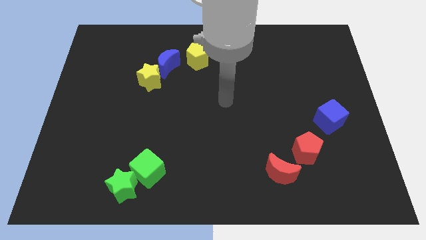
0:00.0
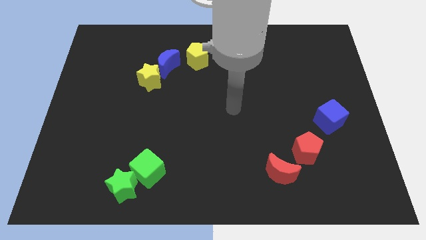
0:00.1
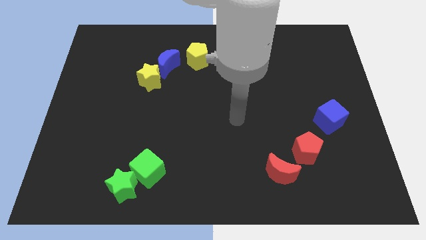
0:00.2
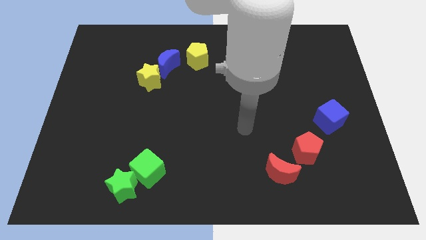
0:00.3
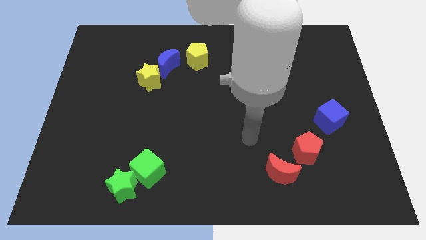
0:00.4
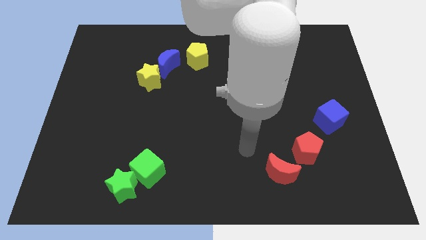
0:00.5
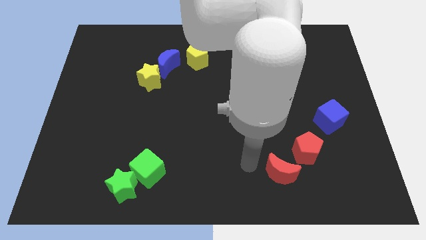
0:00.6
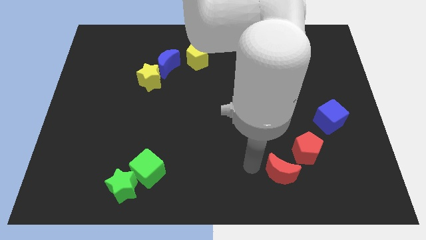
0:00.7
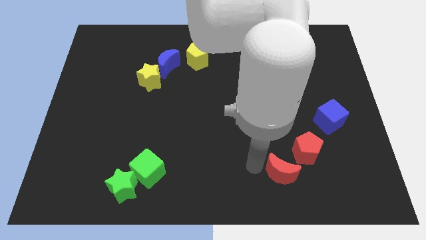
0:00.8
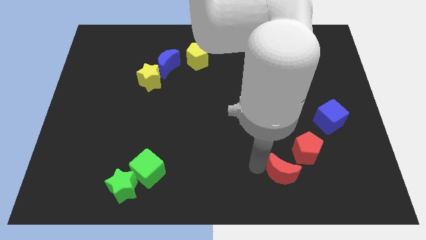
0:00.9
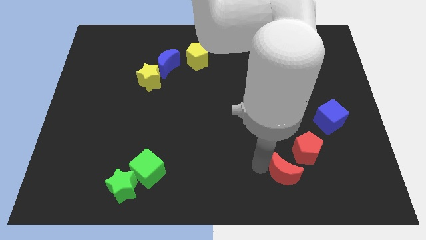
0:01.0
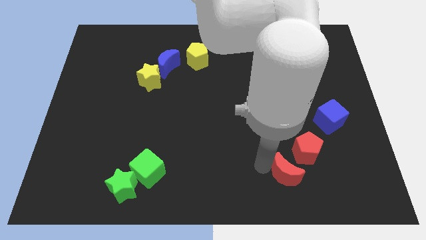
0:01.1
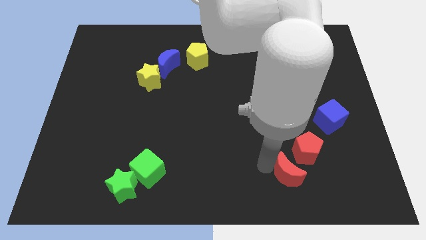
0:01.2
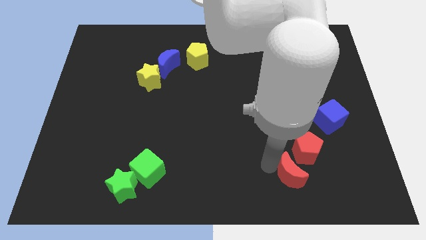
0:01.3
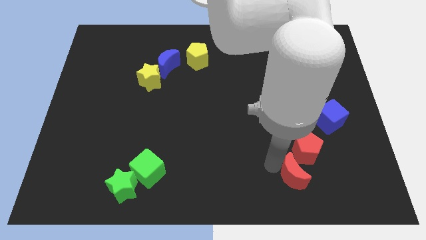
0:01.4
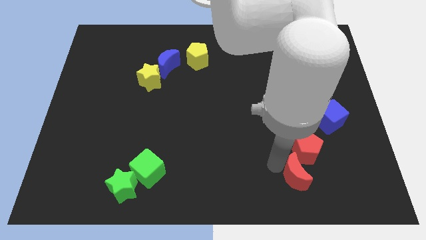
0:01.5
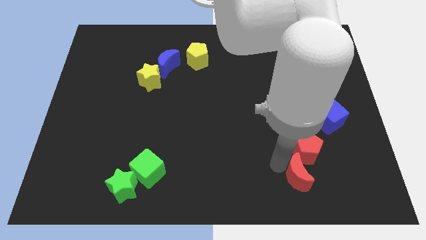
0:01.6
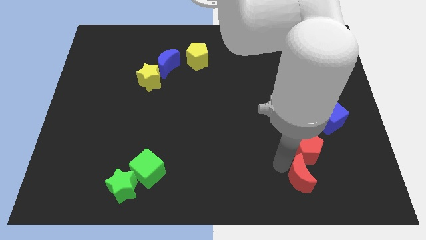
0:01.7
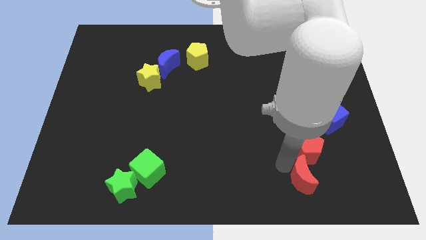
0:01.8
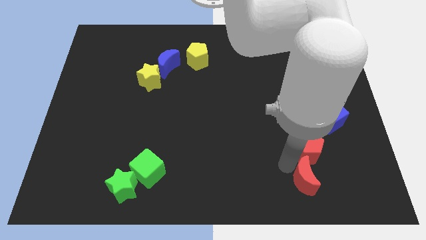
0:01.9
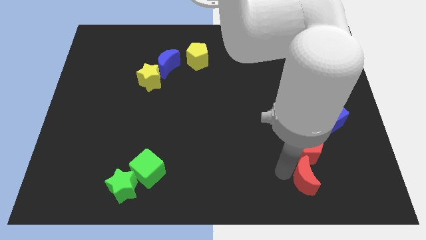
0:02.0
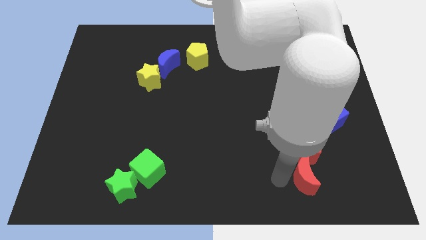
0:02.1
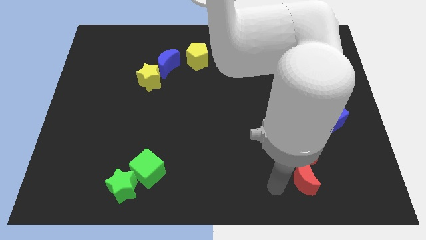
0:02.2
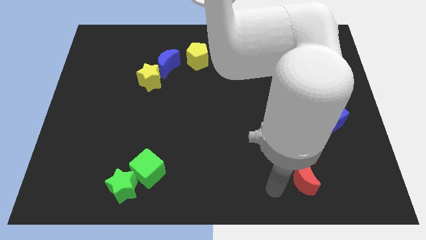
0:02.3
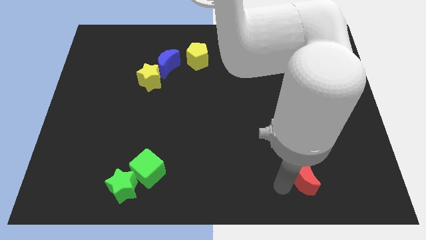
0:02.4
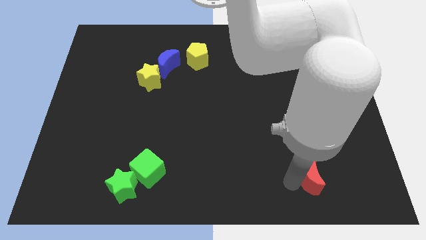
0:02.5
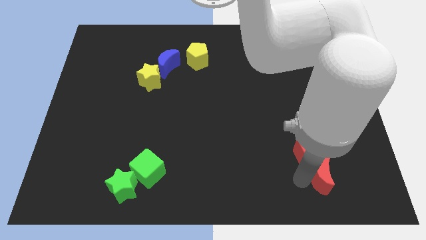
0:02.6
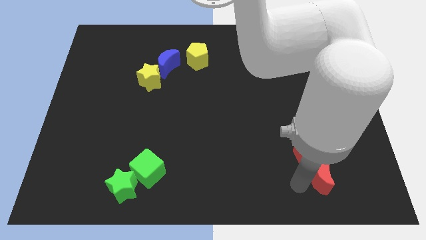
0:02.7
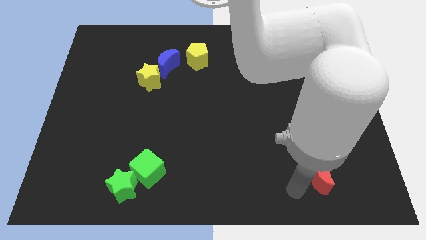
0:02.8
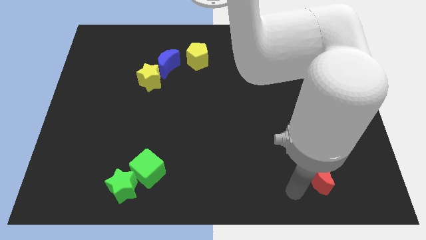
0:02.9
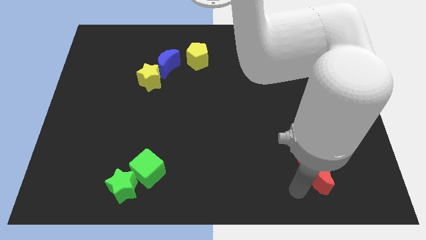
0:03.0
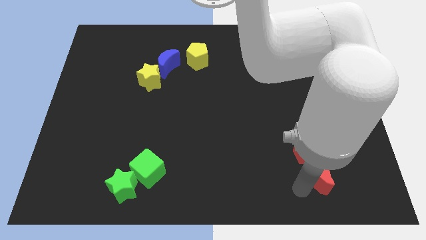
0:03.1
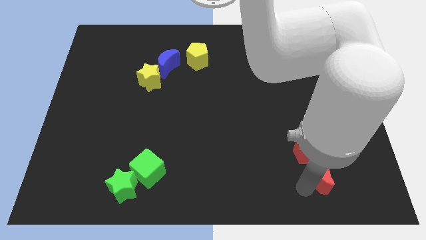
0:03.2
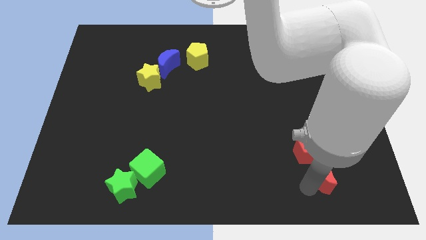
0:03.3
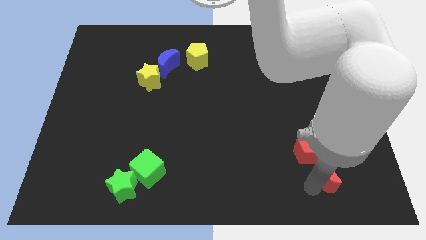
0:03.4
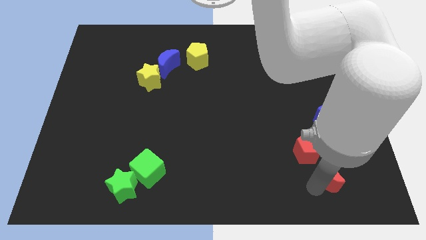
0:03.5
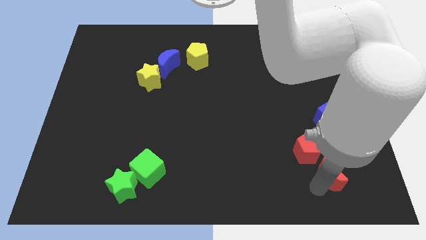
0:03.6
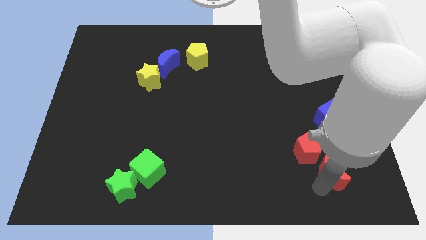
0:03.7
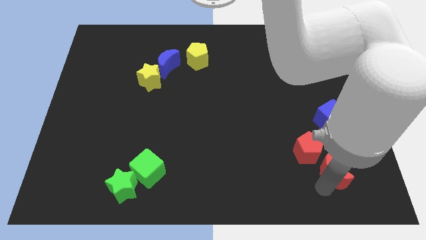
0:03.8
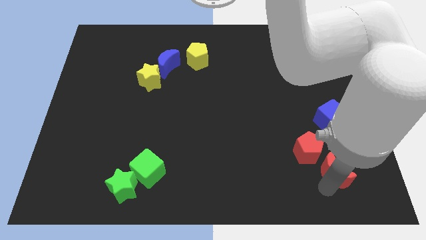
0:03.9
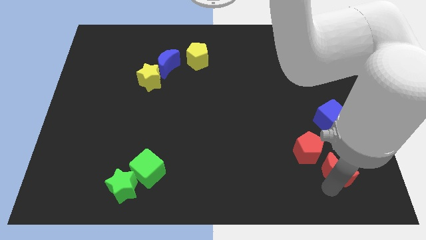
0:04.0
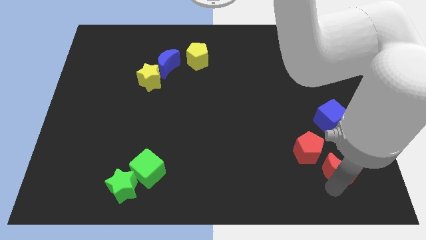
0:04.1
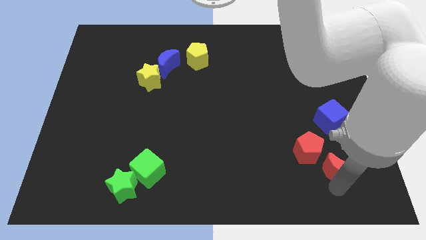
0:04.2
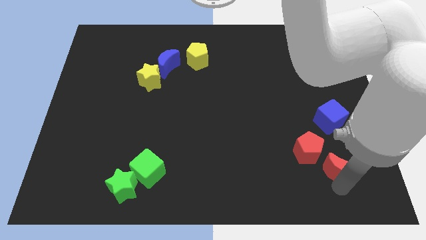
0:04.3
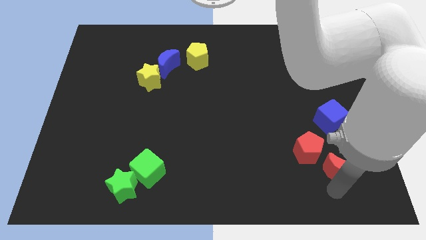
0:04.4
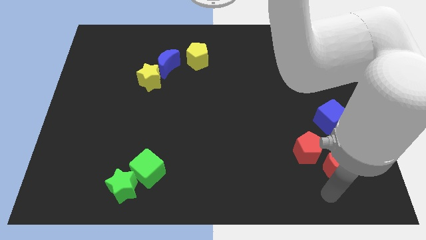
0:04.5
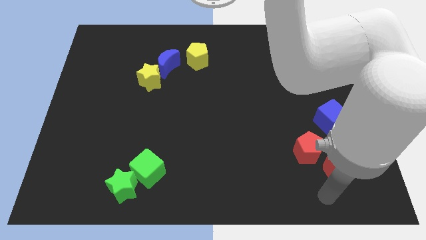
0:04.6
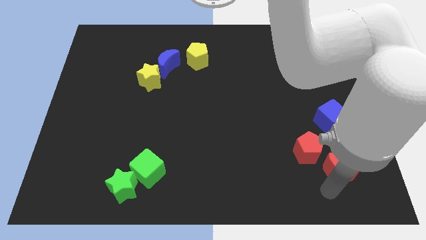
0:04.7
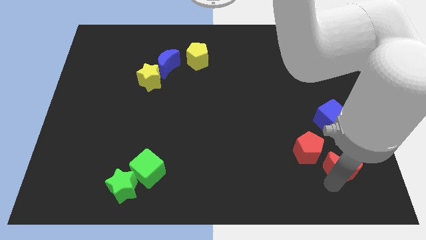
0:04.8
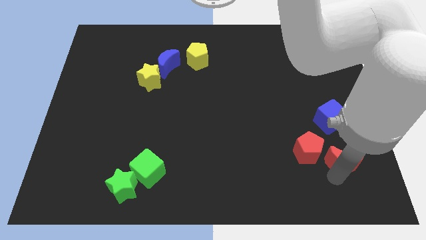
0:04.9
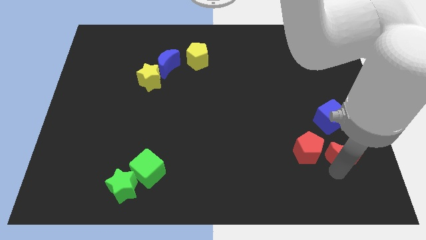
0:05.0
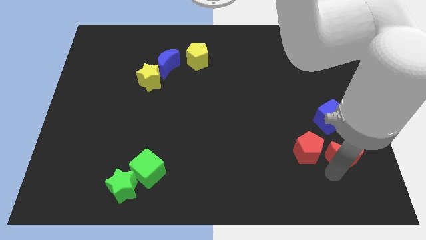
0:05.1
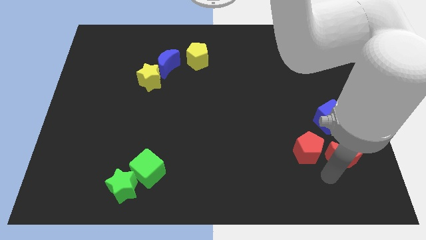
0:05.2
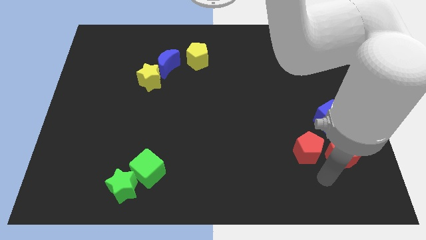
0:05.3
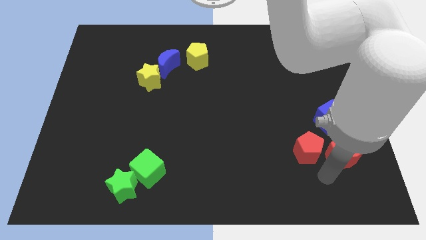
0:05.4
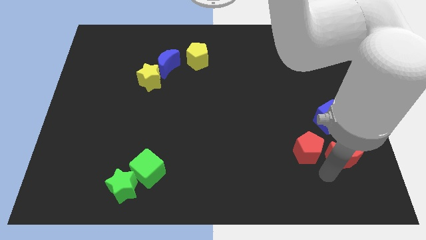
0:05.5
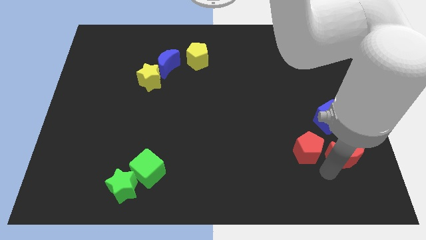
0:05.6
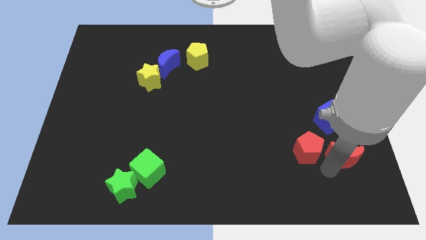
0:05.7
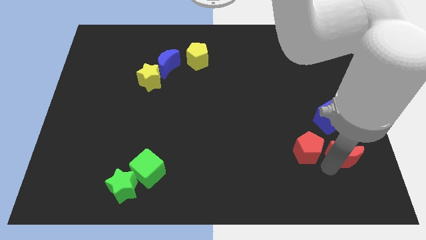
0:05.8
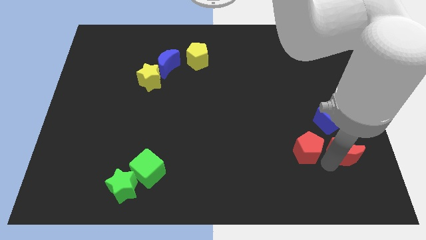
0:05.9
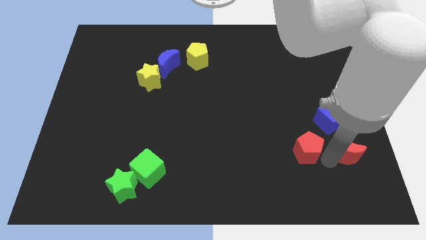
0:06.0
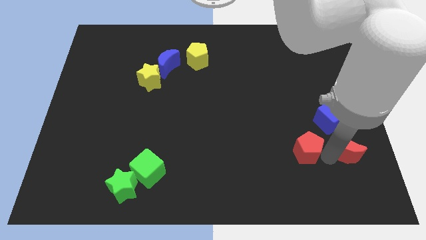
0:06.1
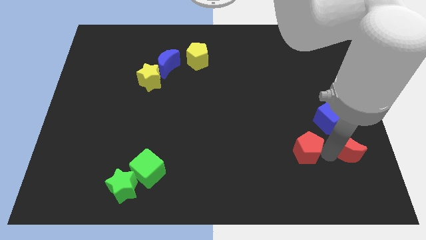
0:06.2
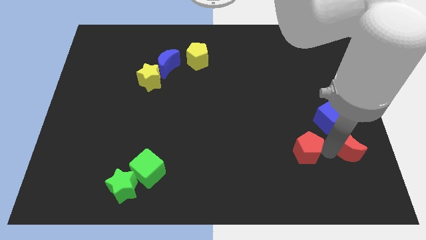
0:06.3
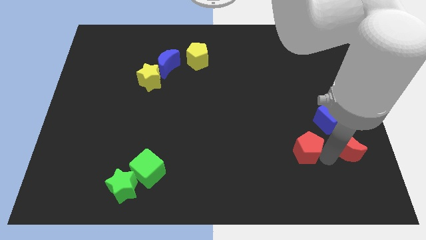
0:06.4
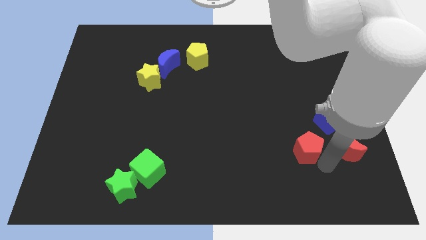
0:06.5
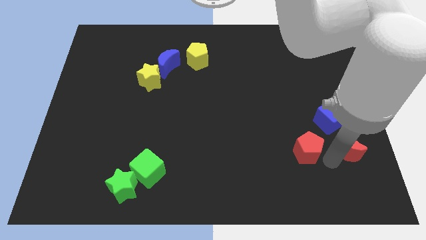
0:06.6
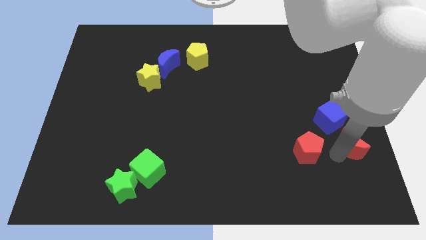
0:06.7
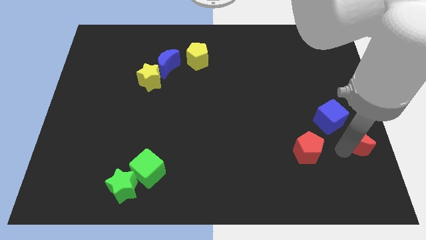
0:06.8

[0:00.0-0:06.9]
move the red moon to the center right
